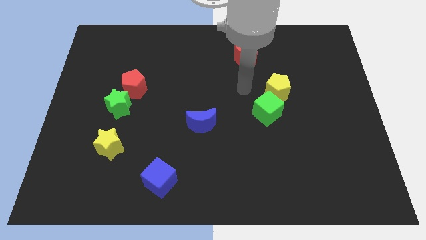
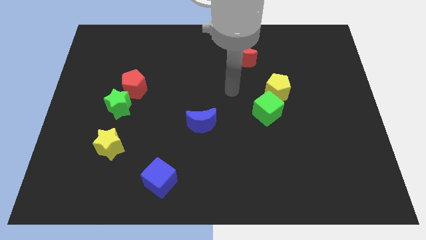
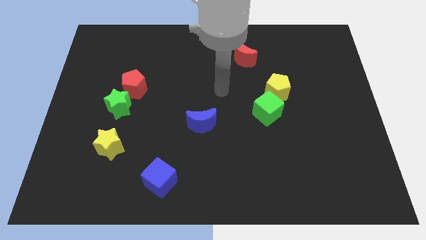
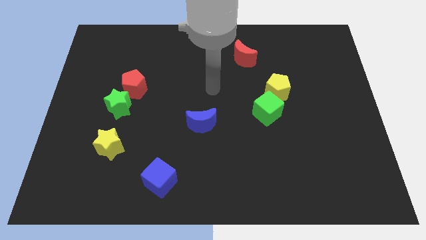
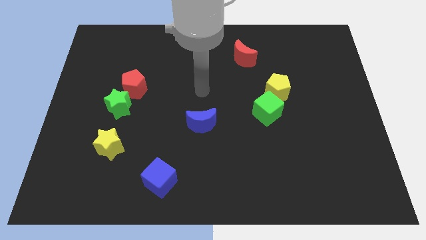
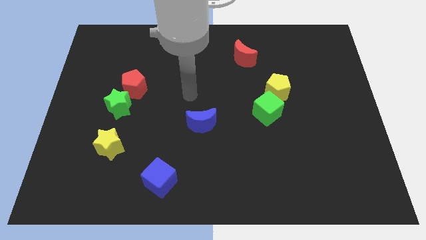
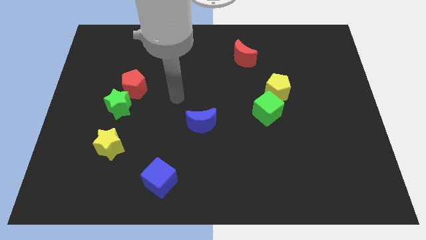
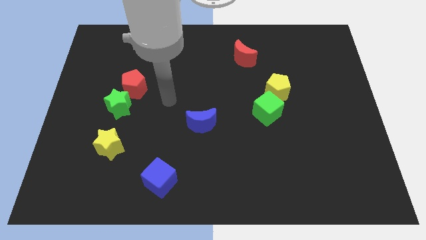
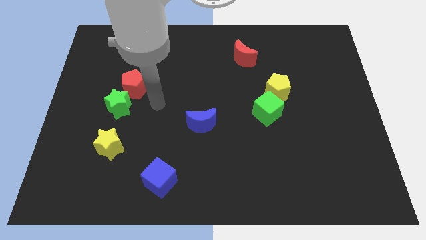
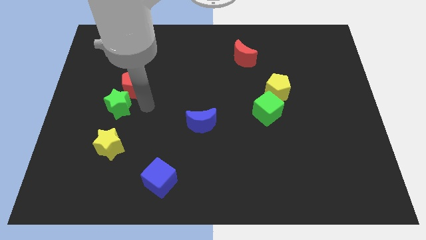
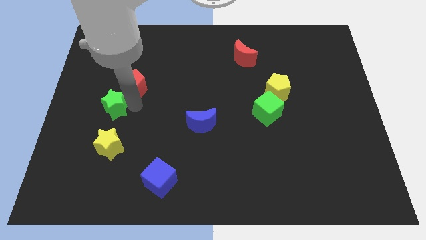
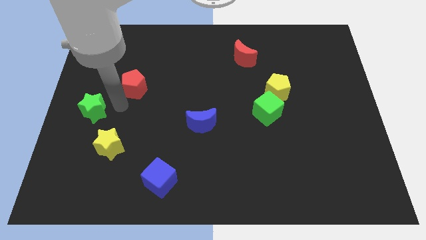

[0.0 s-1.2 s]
move the red pentagon away from the green star

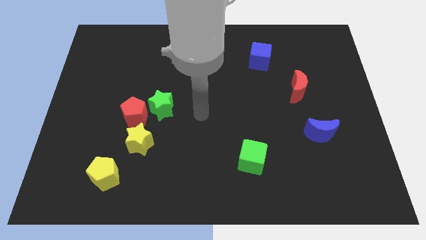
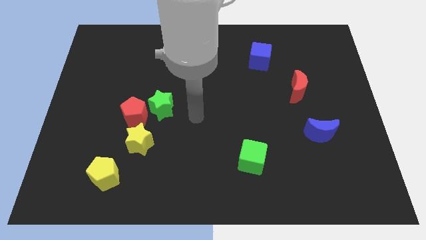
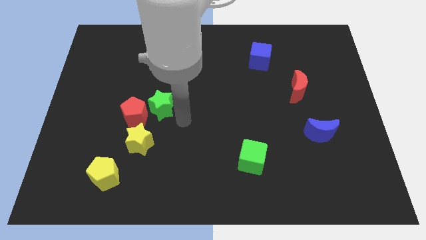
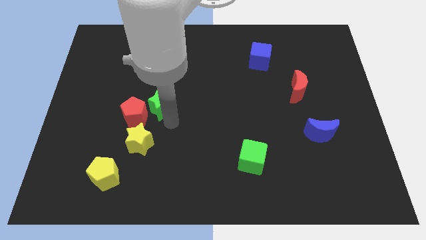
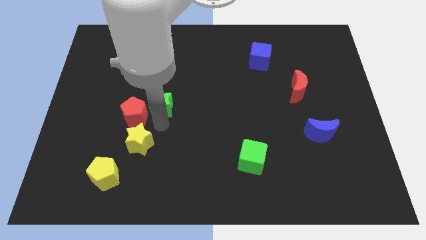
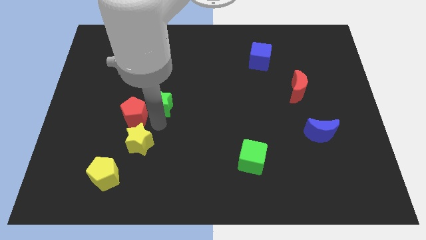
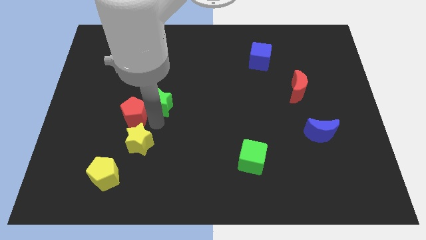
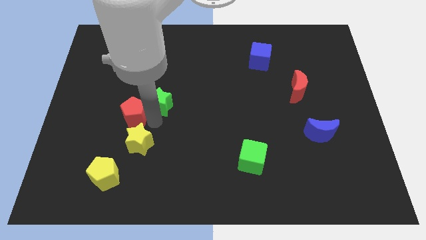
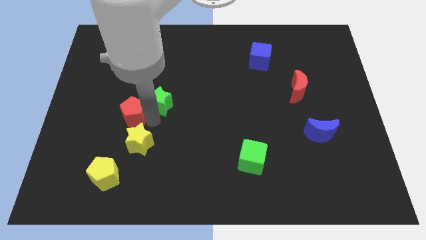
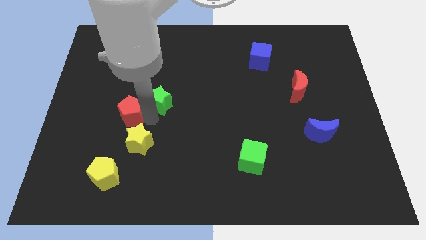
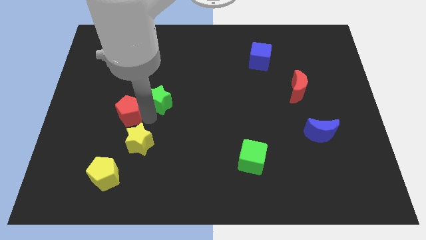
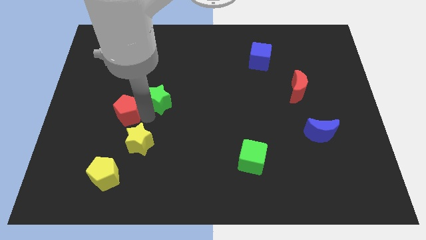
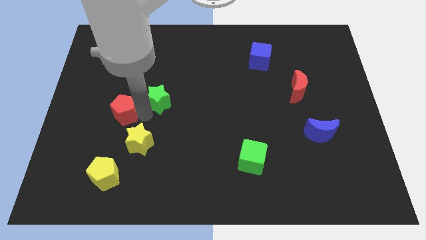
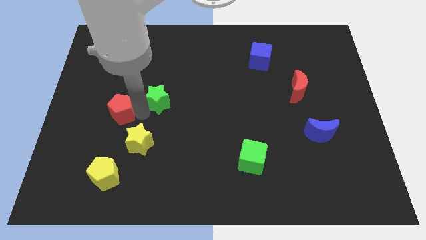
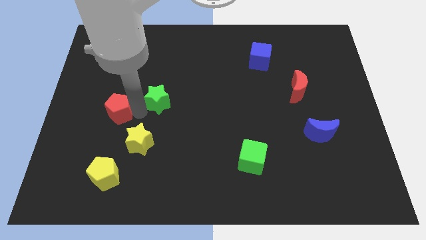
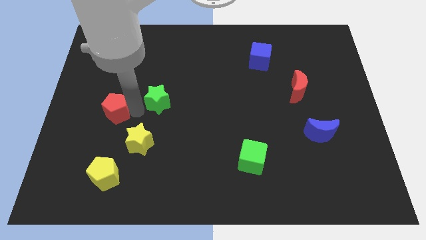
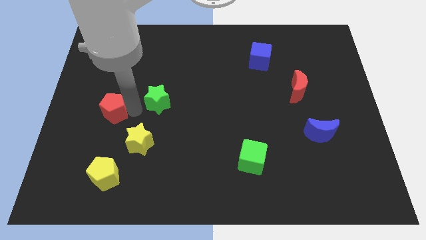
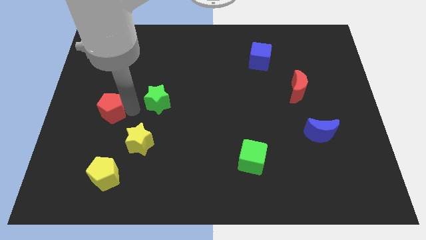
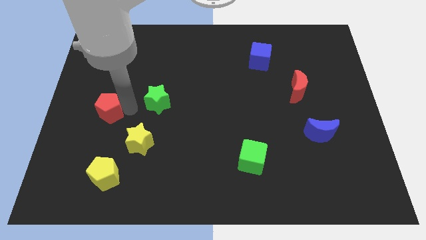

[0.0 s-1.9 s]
move the red pentagon away from the green star and yellow star

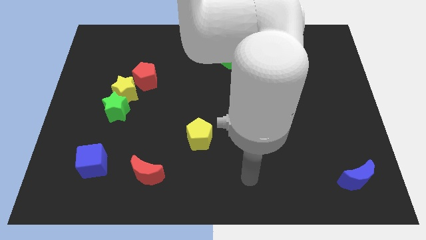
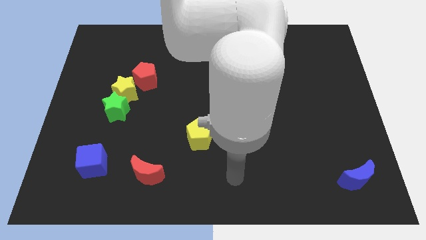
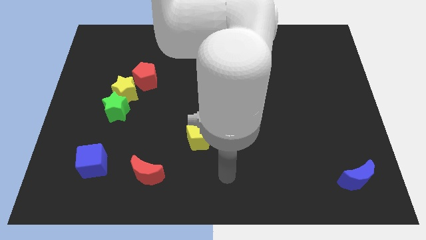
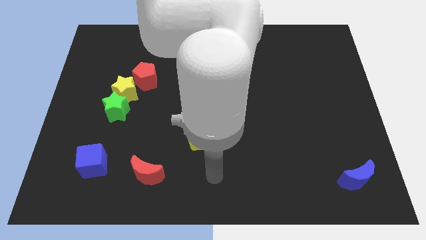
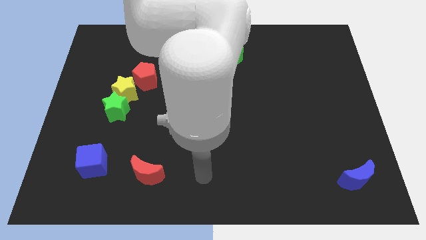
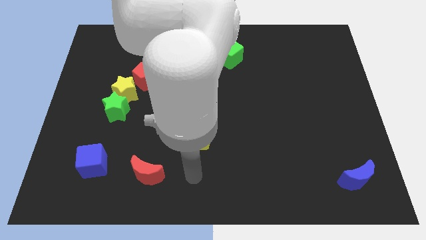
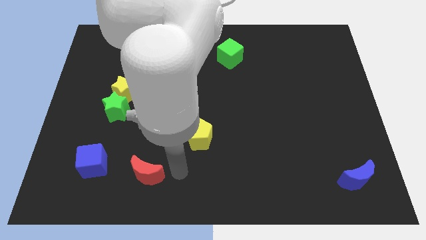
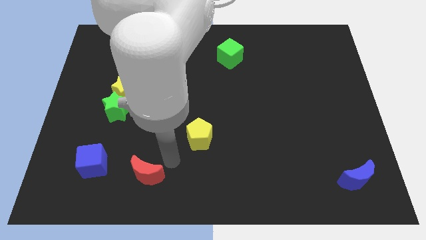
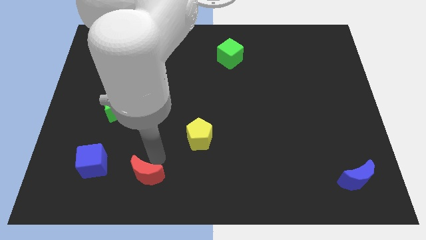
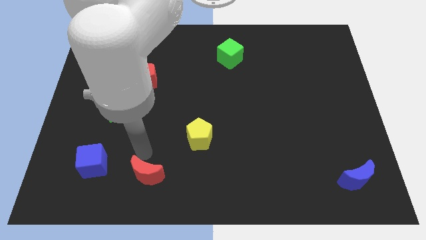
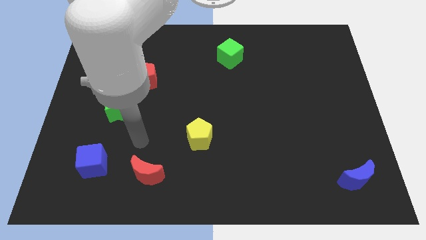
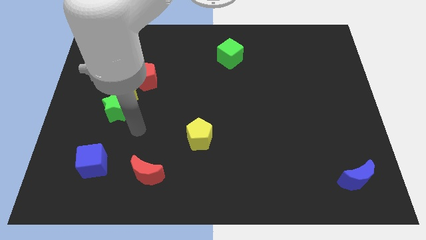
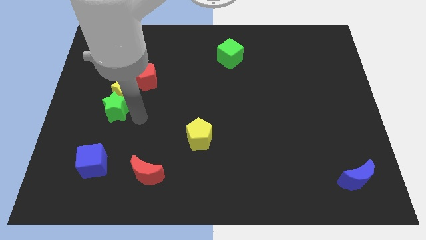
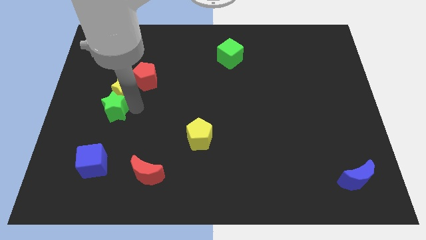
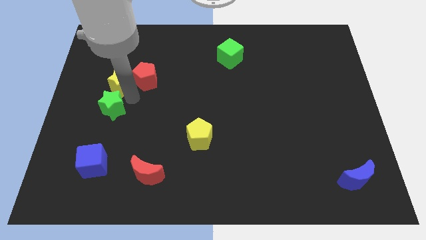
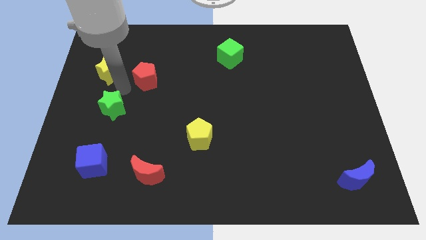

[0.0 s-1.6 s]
move the green star away from the yellow star

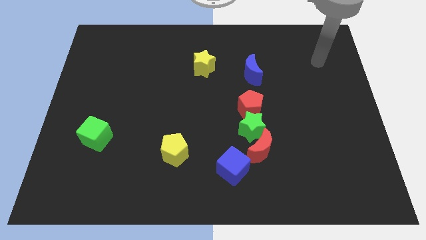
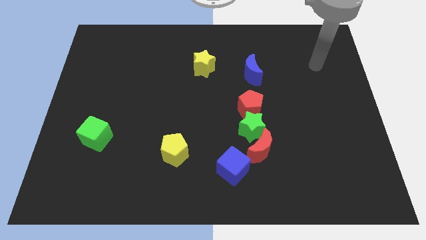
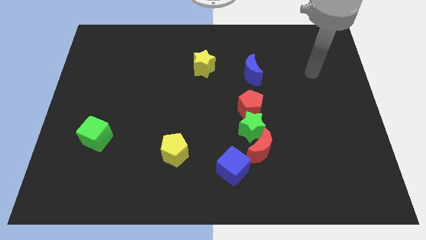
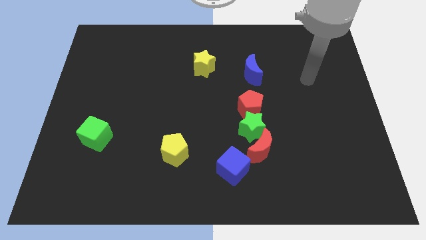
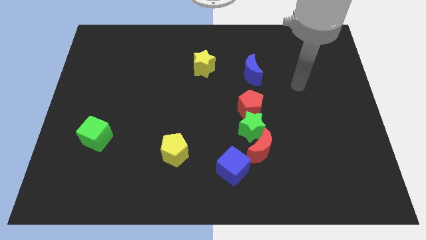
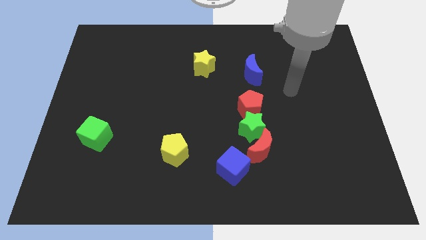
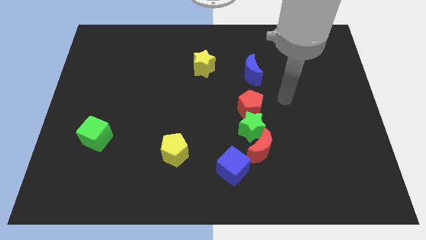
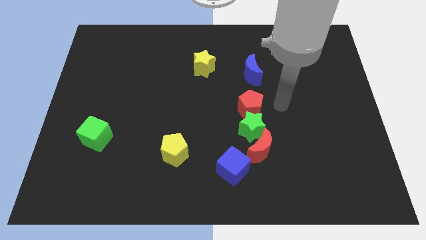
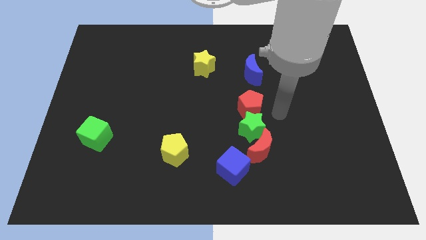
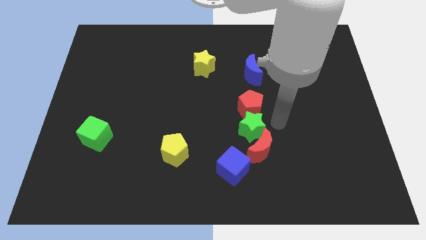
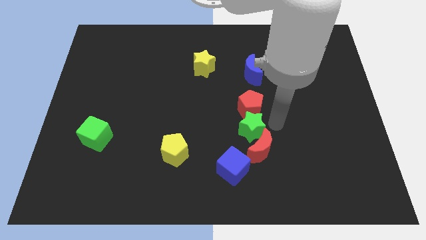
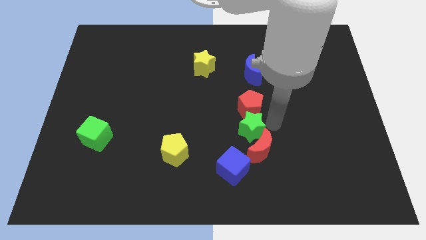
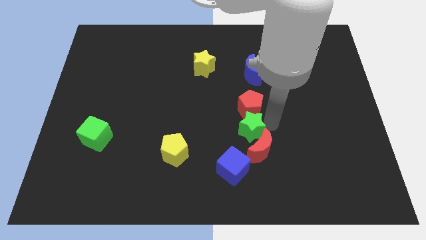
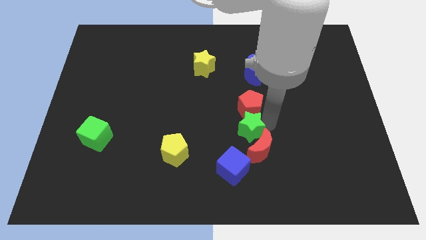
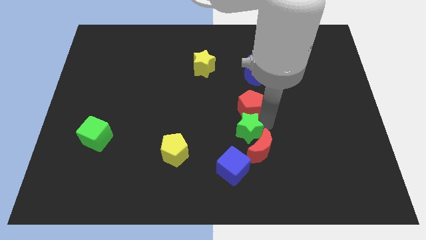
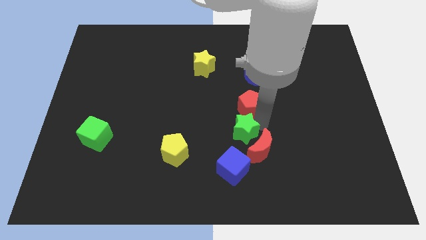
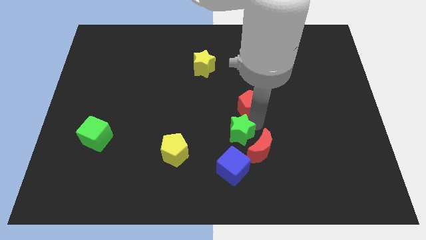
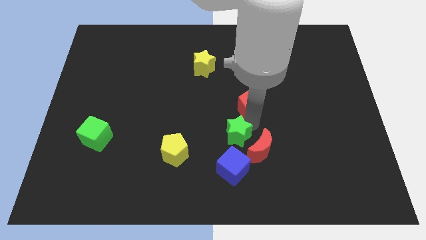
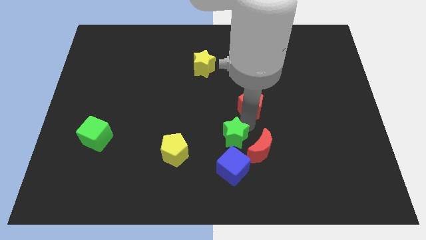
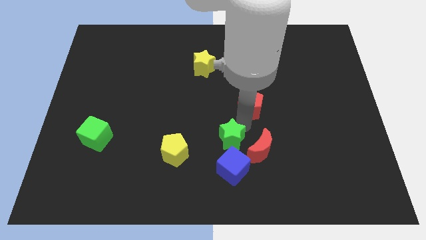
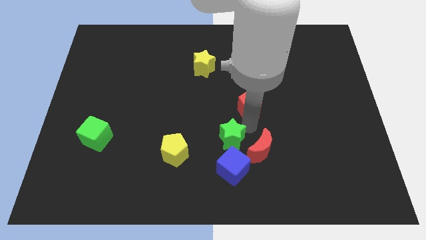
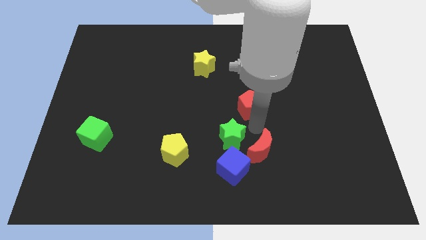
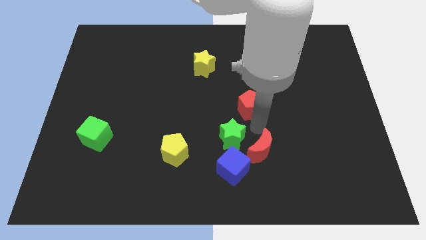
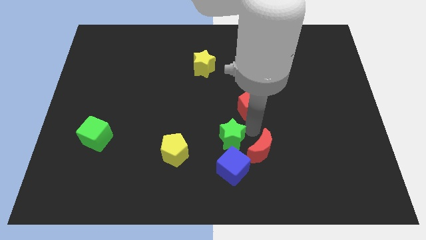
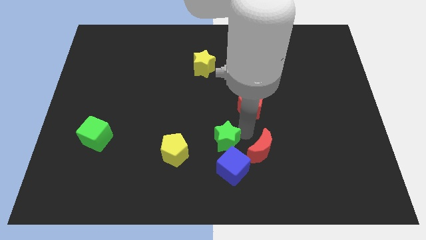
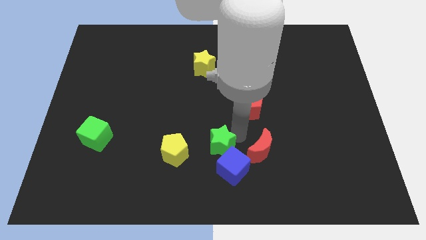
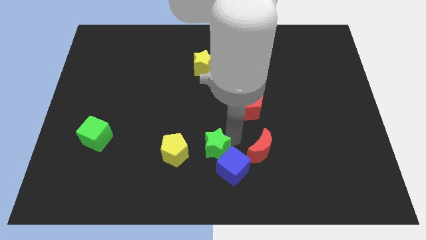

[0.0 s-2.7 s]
move the green star away from the red moon and red pentagon

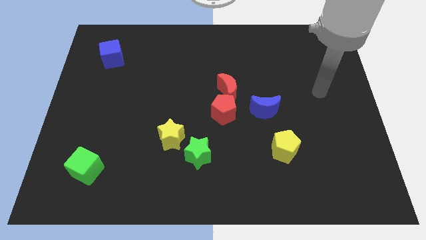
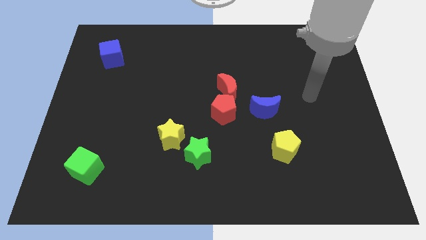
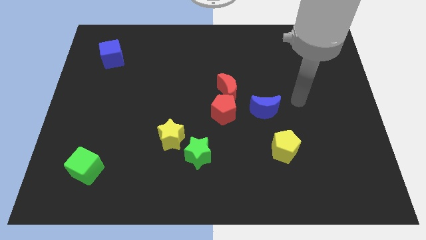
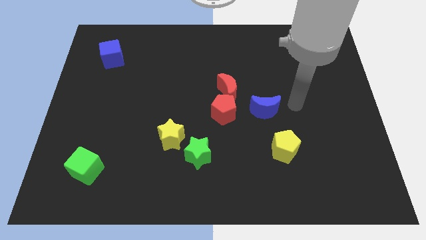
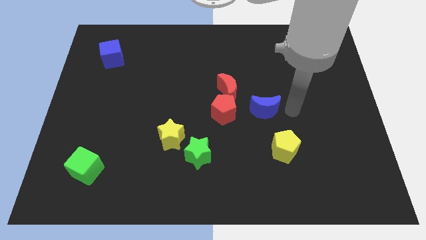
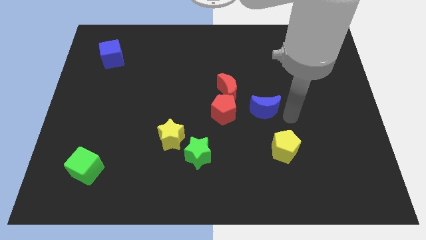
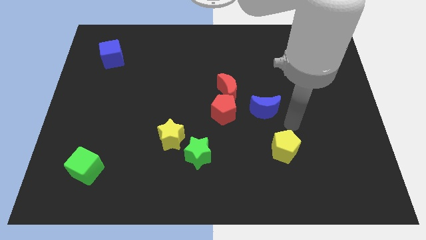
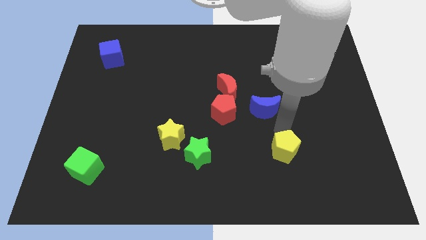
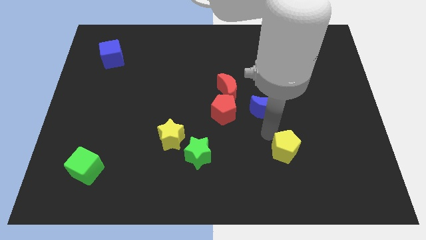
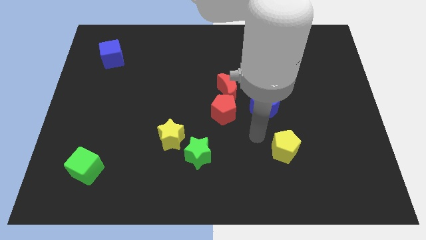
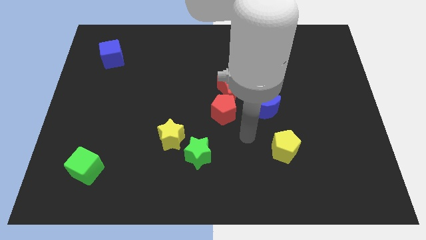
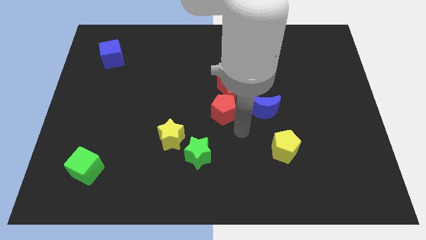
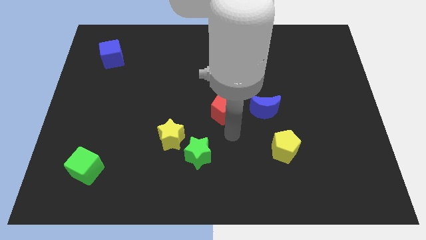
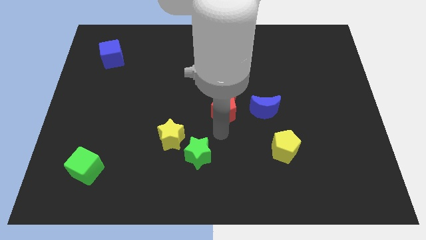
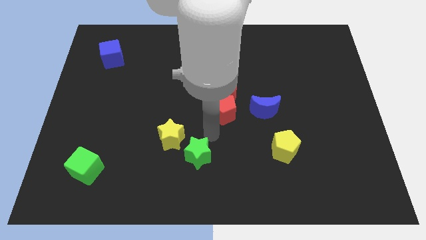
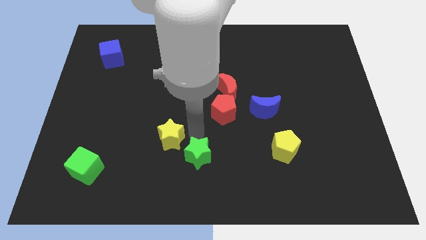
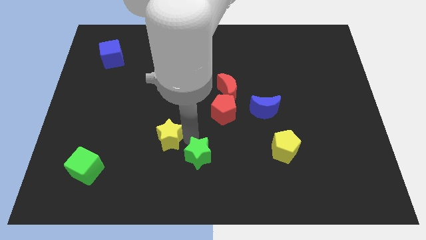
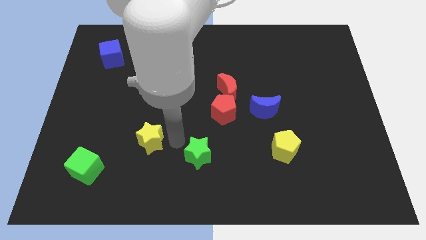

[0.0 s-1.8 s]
separate the green star from the yellow star
